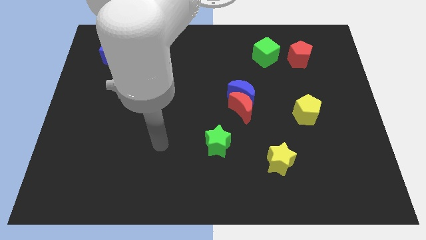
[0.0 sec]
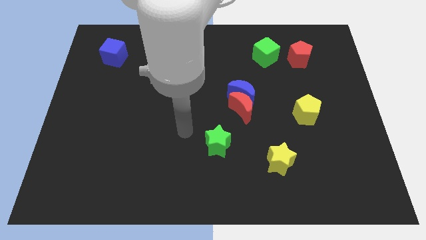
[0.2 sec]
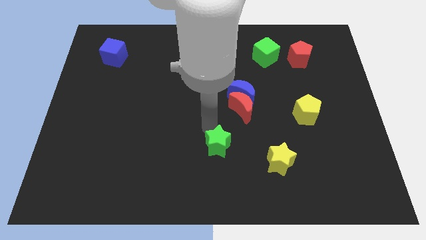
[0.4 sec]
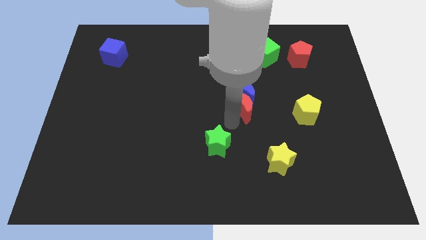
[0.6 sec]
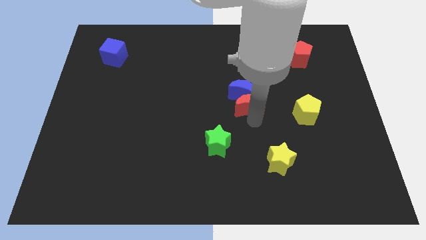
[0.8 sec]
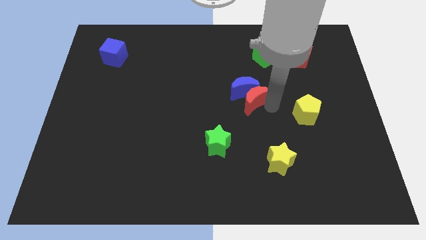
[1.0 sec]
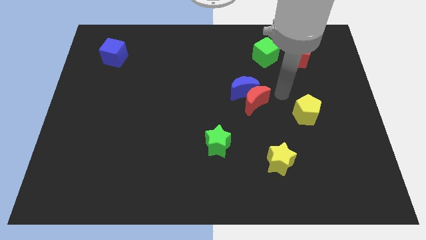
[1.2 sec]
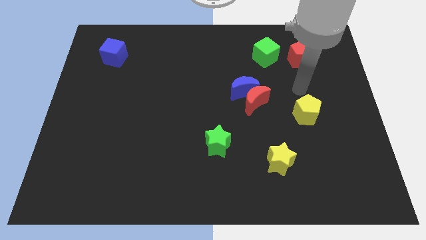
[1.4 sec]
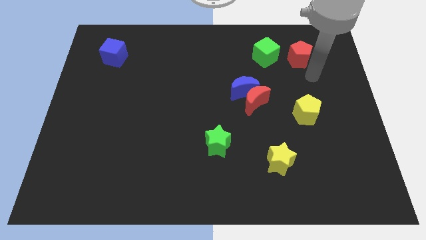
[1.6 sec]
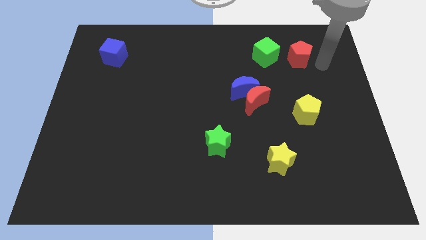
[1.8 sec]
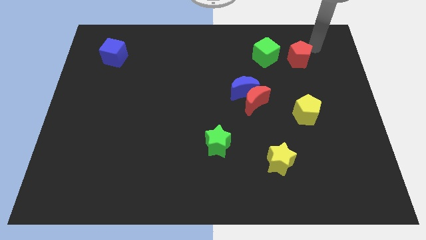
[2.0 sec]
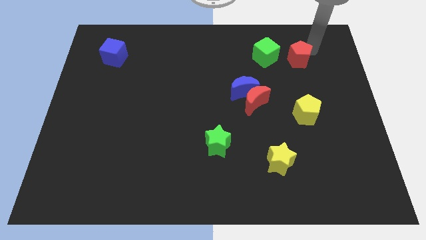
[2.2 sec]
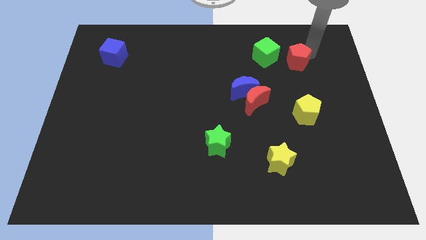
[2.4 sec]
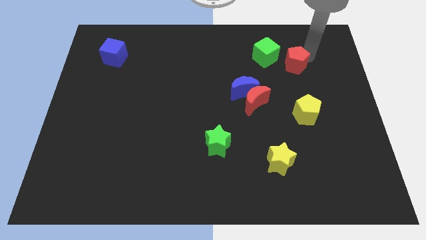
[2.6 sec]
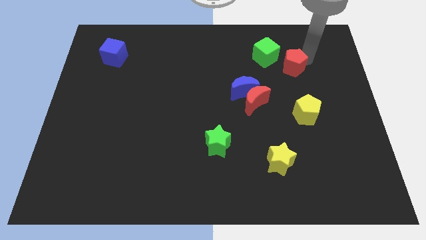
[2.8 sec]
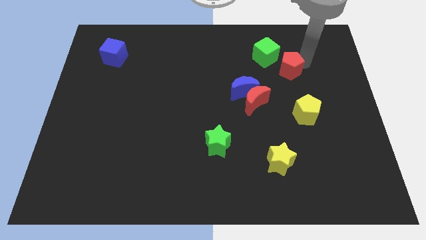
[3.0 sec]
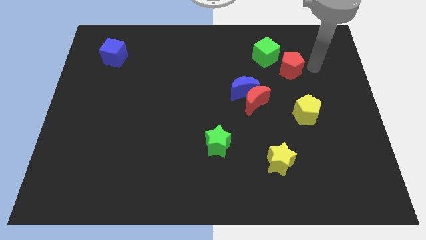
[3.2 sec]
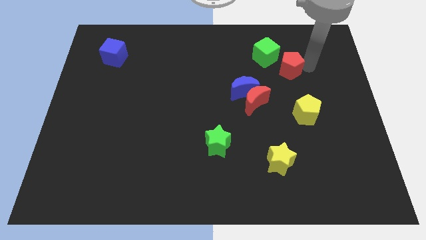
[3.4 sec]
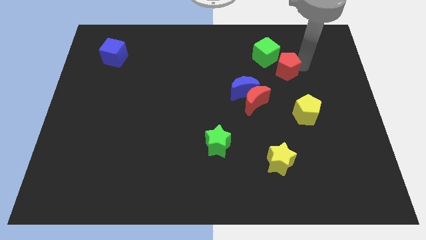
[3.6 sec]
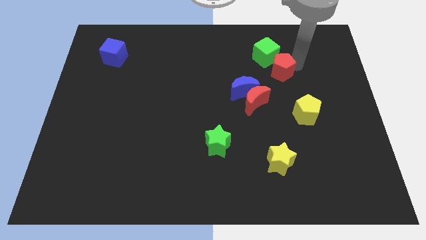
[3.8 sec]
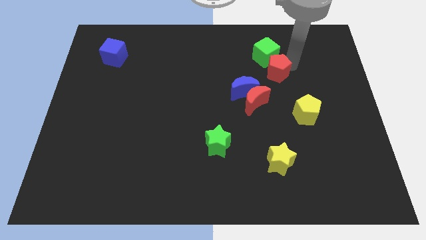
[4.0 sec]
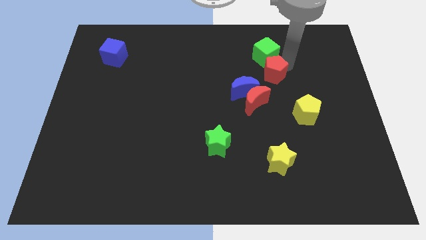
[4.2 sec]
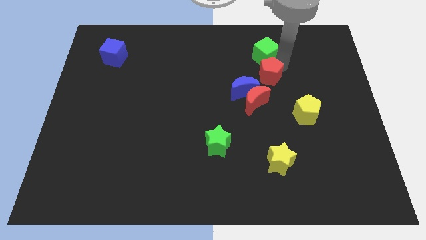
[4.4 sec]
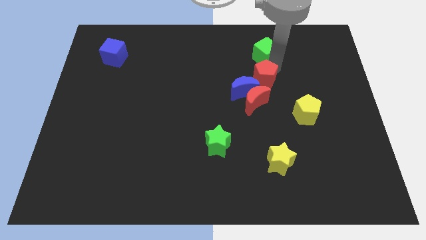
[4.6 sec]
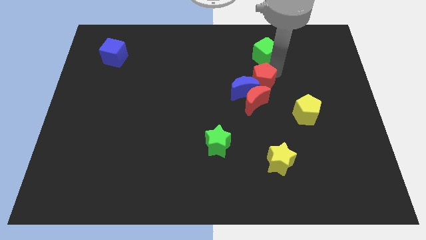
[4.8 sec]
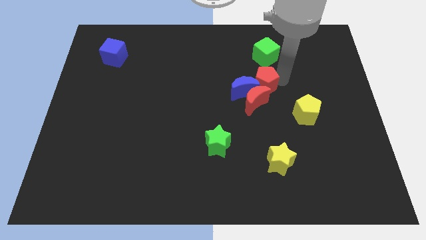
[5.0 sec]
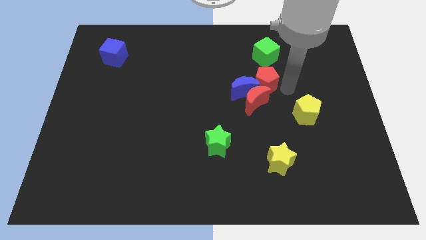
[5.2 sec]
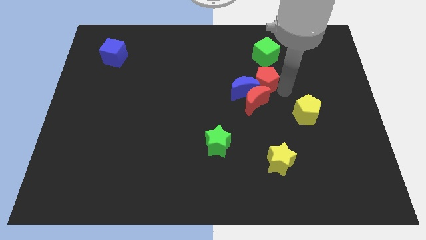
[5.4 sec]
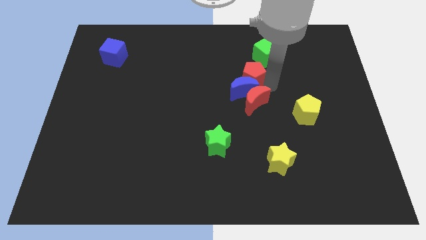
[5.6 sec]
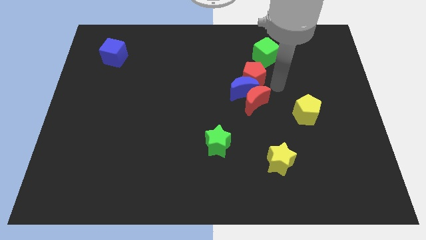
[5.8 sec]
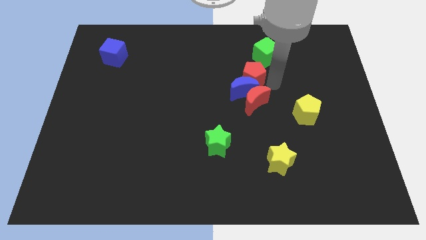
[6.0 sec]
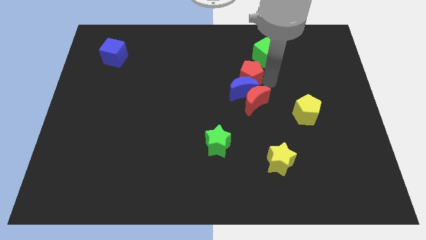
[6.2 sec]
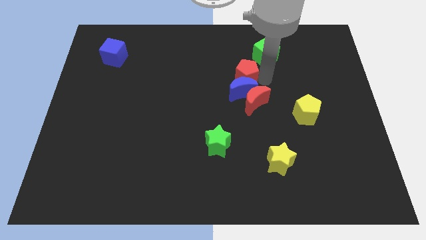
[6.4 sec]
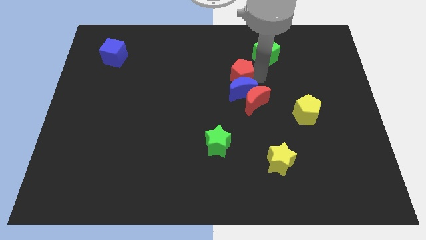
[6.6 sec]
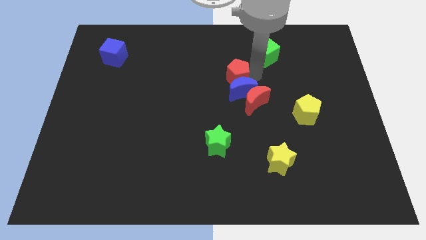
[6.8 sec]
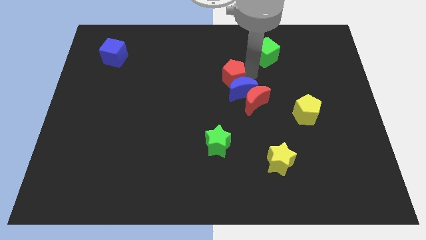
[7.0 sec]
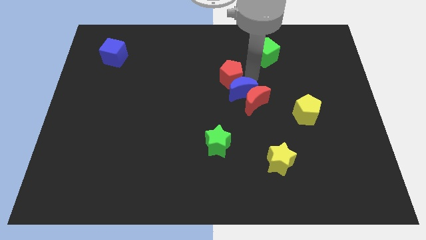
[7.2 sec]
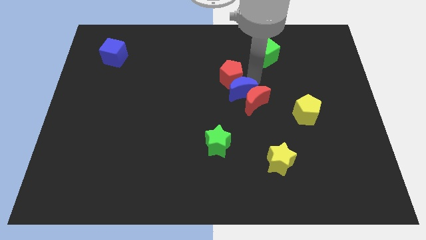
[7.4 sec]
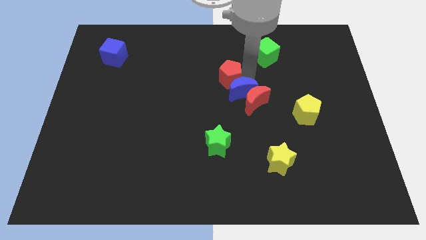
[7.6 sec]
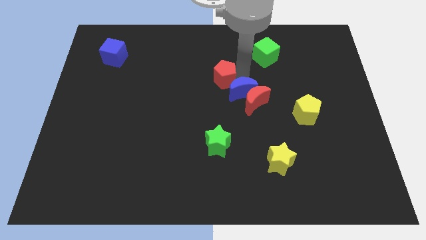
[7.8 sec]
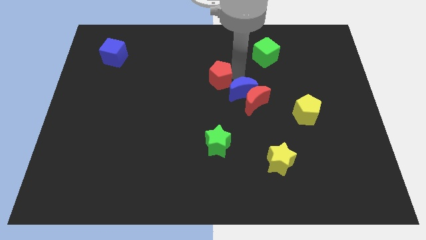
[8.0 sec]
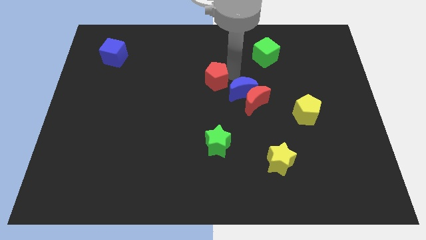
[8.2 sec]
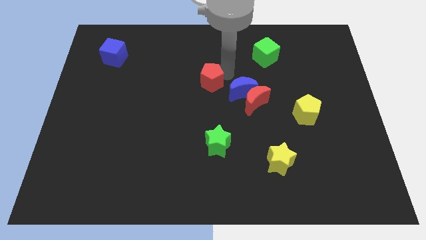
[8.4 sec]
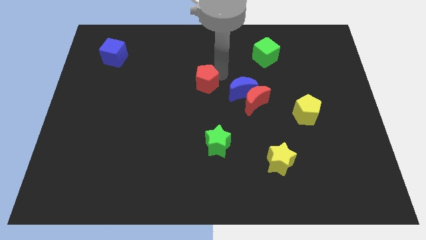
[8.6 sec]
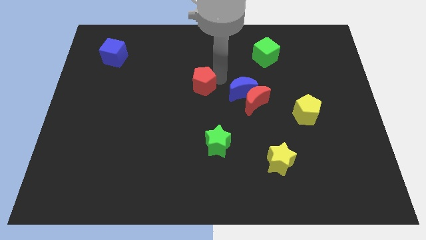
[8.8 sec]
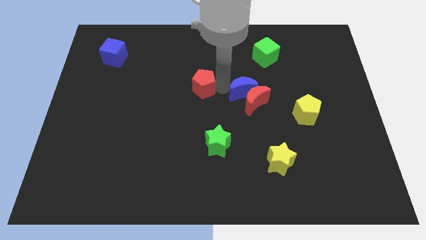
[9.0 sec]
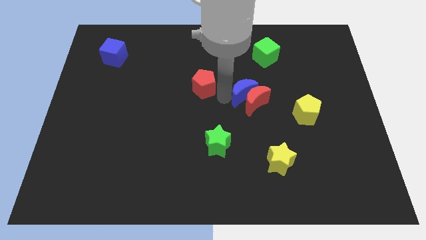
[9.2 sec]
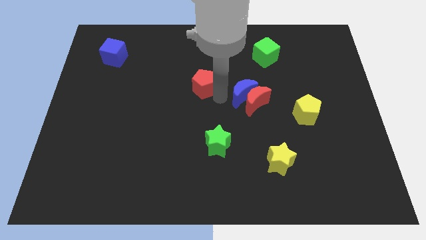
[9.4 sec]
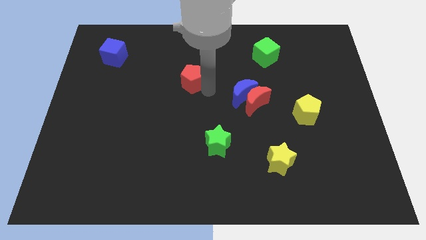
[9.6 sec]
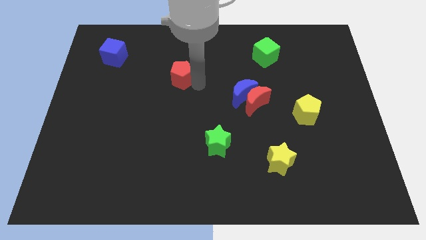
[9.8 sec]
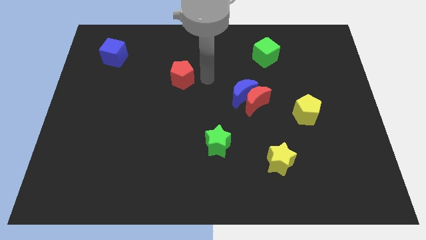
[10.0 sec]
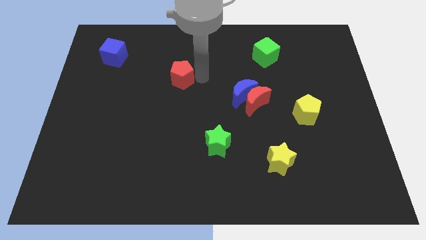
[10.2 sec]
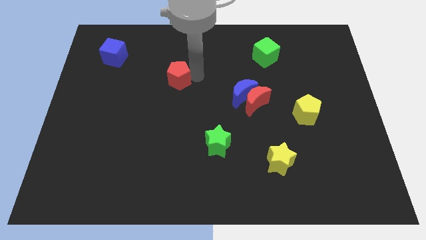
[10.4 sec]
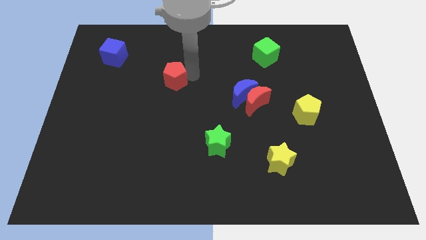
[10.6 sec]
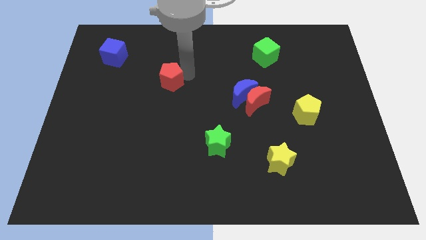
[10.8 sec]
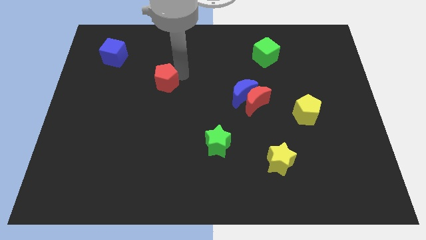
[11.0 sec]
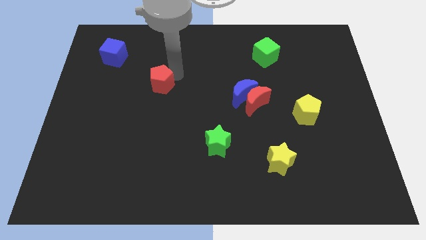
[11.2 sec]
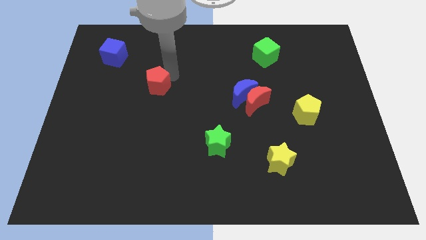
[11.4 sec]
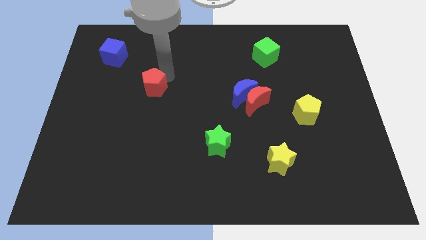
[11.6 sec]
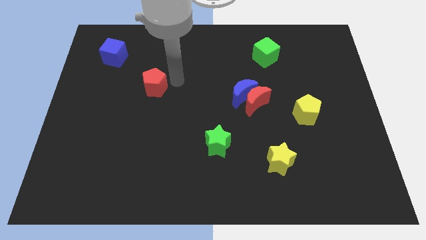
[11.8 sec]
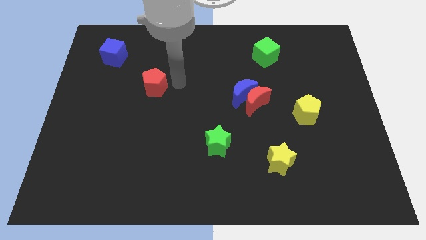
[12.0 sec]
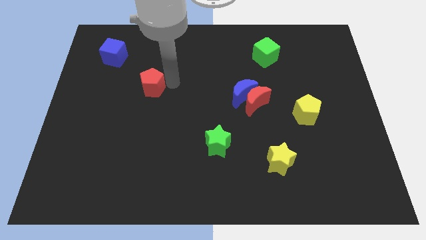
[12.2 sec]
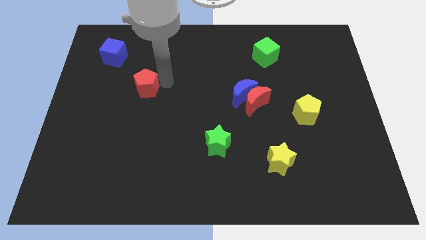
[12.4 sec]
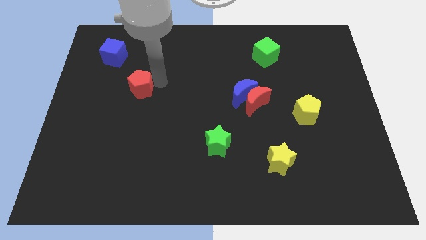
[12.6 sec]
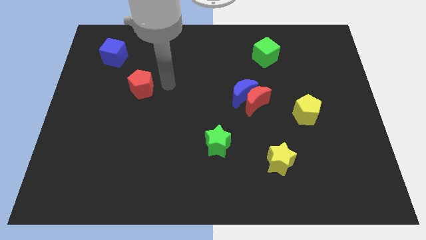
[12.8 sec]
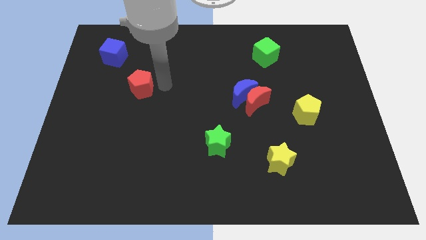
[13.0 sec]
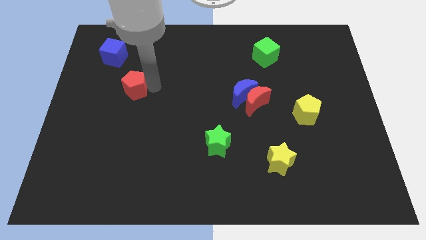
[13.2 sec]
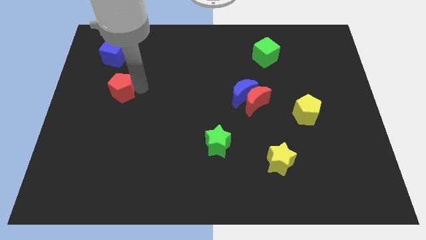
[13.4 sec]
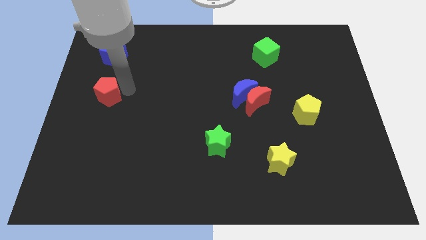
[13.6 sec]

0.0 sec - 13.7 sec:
move the red pentagon to the center left
